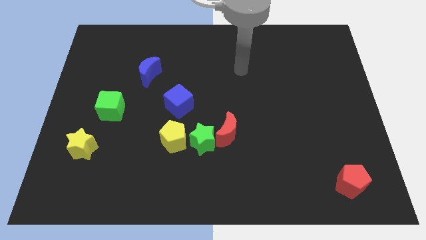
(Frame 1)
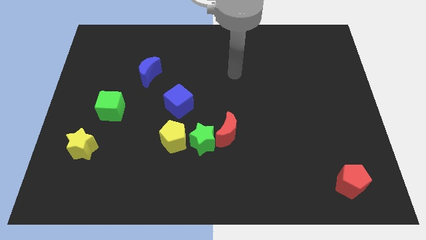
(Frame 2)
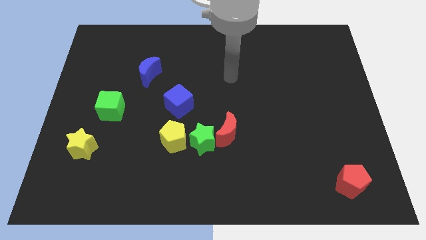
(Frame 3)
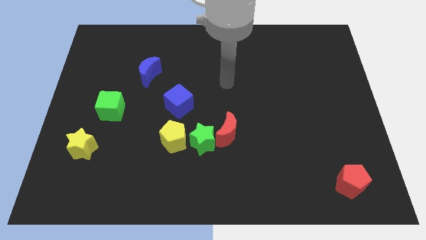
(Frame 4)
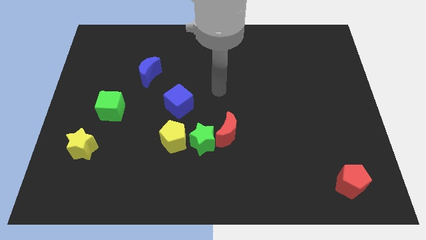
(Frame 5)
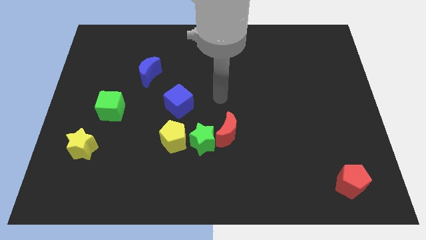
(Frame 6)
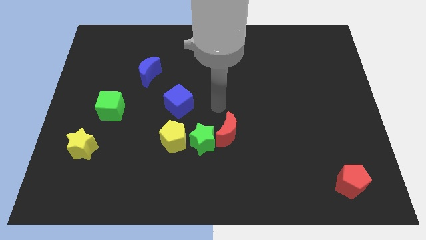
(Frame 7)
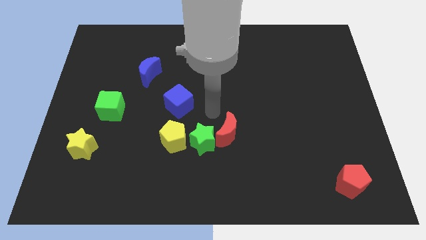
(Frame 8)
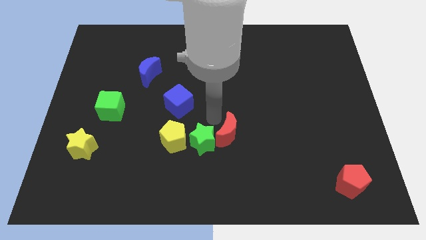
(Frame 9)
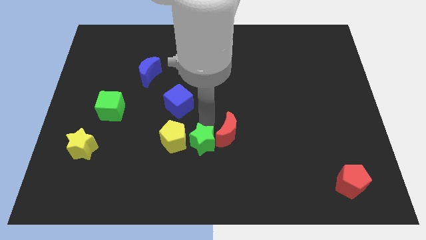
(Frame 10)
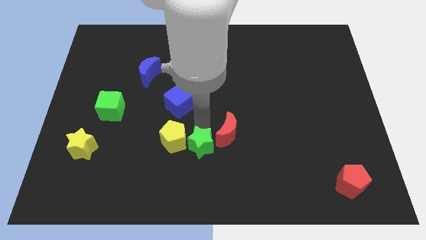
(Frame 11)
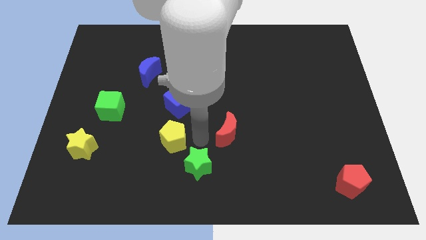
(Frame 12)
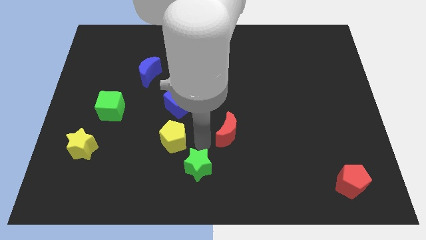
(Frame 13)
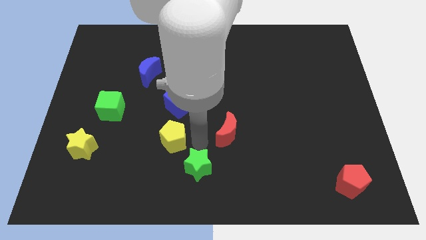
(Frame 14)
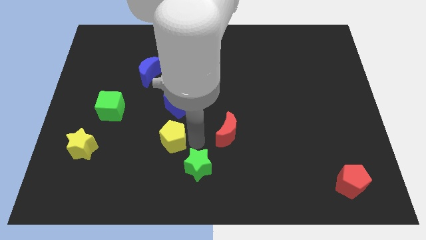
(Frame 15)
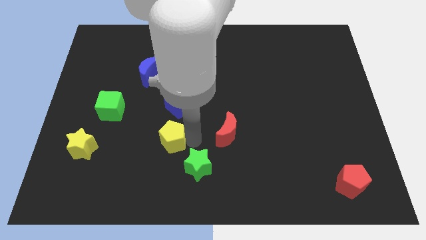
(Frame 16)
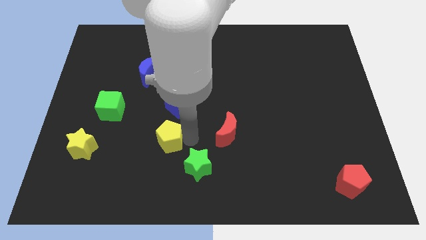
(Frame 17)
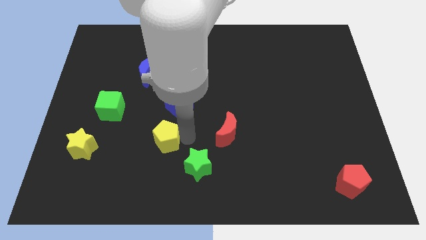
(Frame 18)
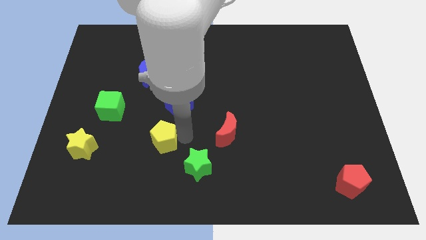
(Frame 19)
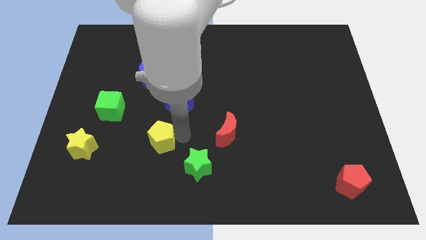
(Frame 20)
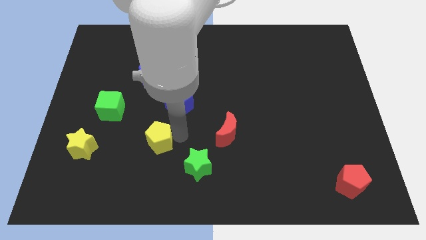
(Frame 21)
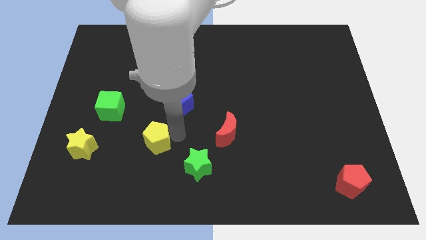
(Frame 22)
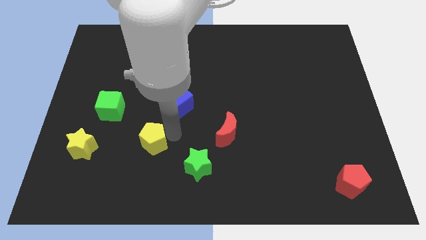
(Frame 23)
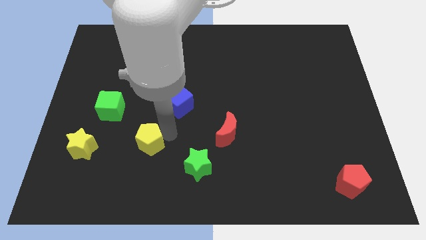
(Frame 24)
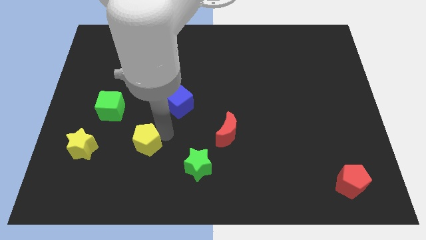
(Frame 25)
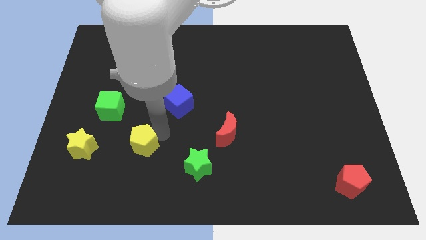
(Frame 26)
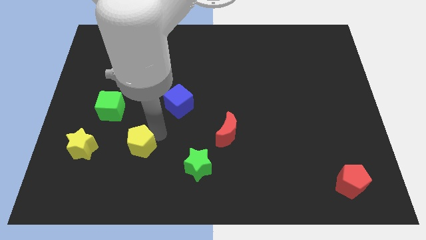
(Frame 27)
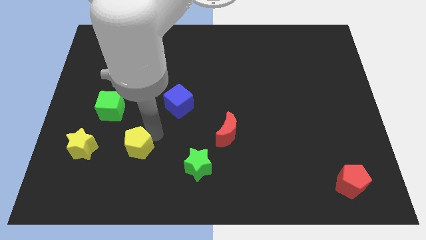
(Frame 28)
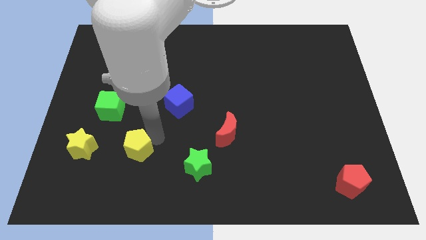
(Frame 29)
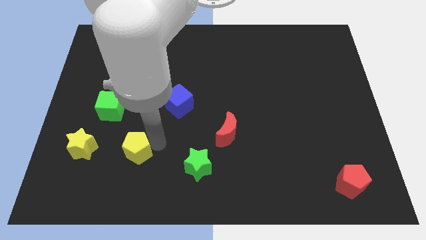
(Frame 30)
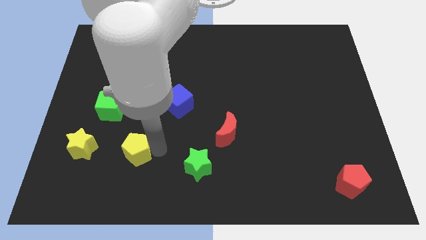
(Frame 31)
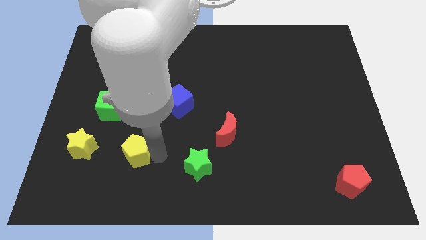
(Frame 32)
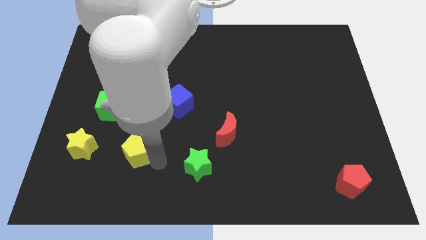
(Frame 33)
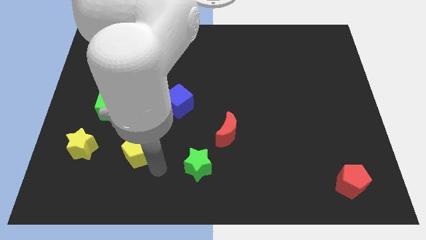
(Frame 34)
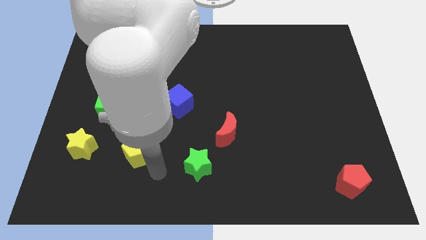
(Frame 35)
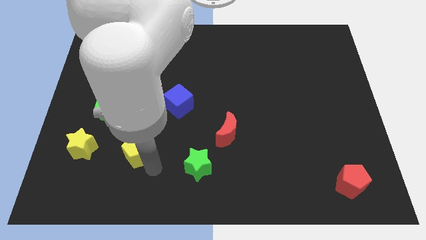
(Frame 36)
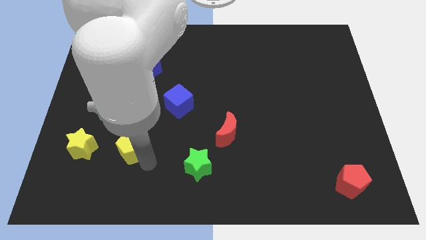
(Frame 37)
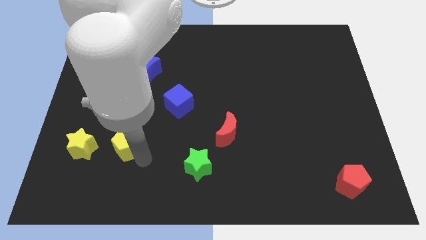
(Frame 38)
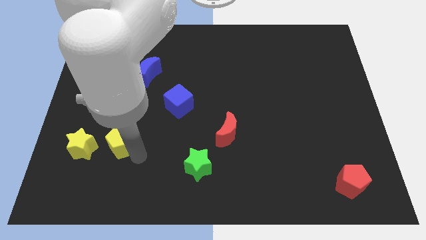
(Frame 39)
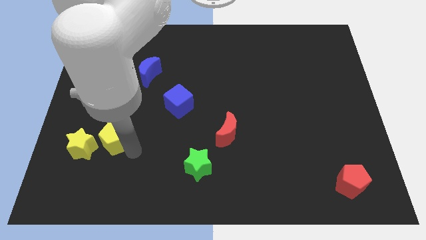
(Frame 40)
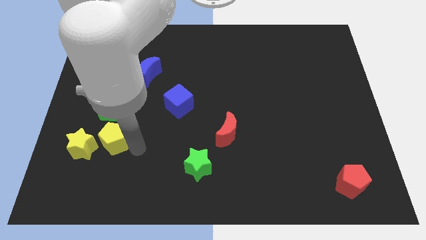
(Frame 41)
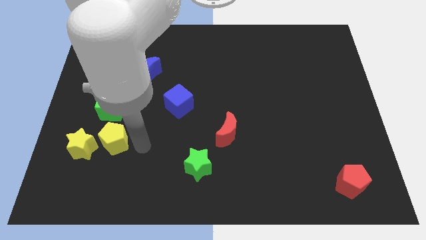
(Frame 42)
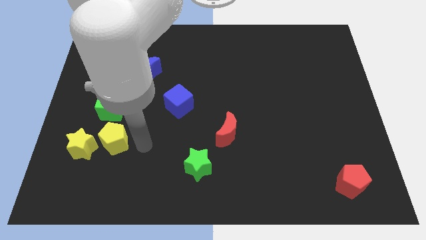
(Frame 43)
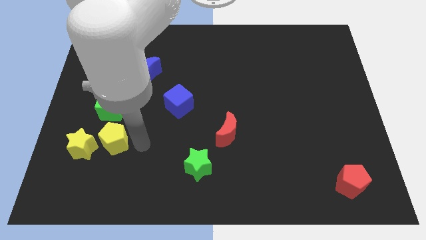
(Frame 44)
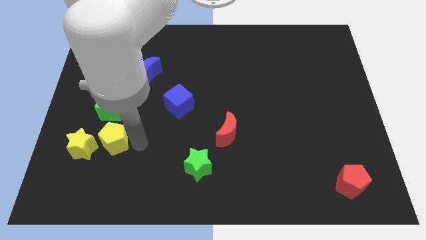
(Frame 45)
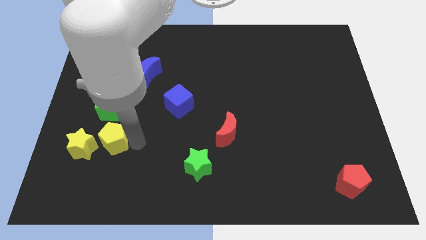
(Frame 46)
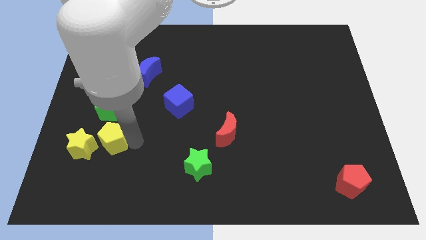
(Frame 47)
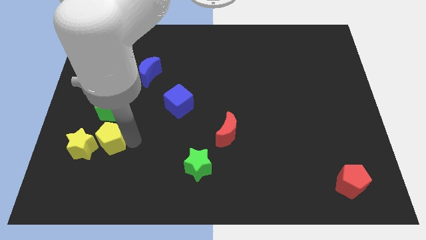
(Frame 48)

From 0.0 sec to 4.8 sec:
put the yellow pentagon towards the yellow star

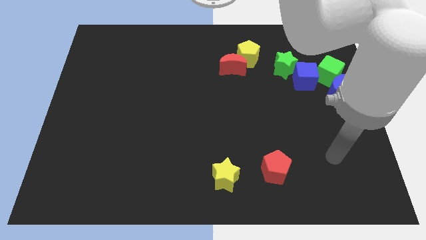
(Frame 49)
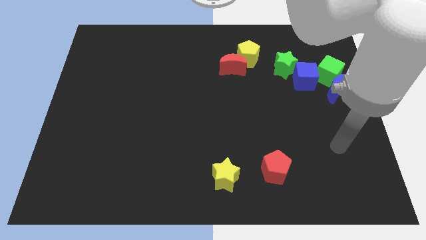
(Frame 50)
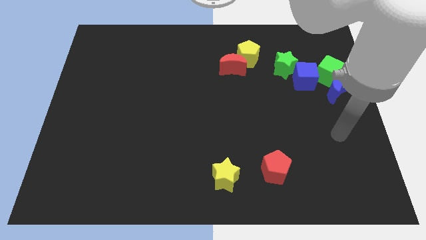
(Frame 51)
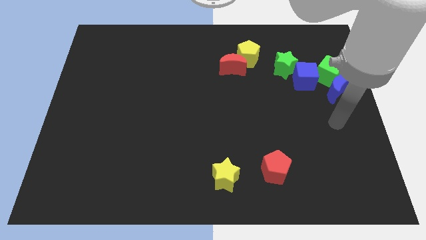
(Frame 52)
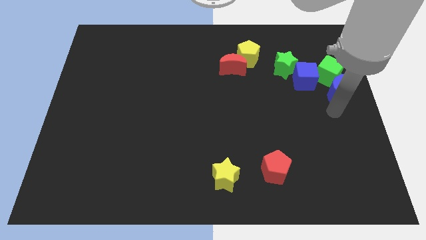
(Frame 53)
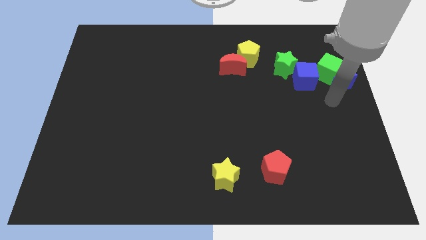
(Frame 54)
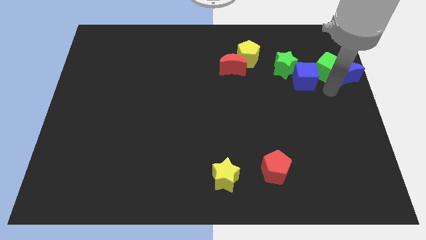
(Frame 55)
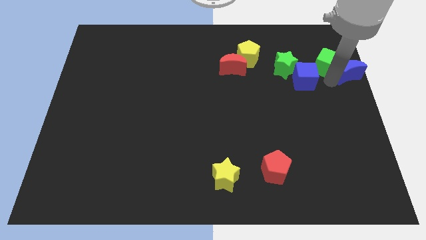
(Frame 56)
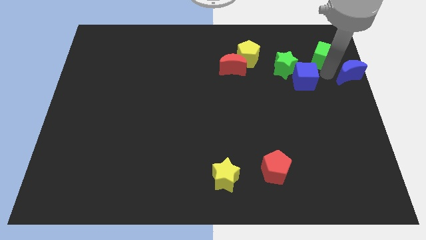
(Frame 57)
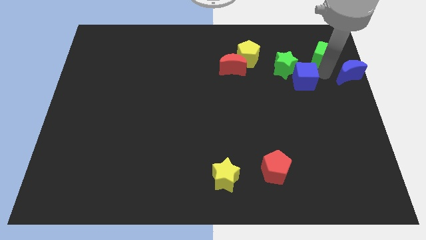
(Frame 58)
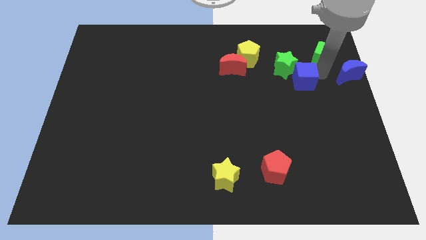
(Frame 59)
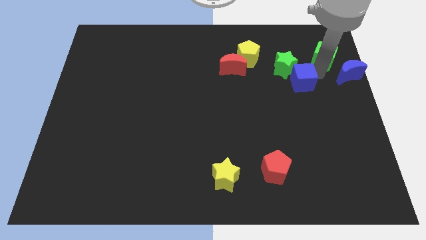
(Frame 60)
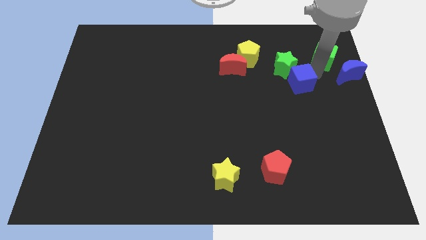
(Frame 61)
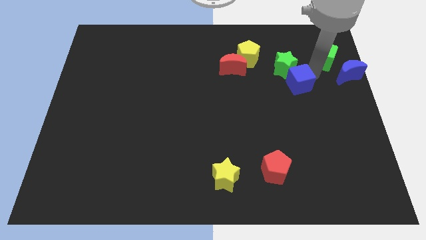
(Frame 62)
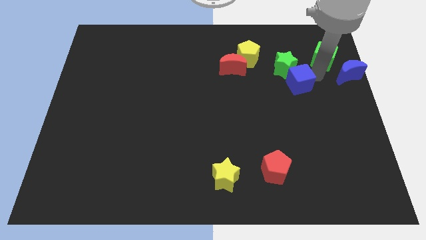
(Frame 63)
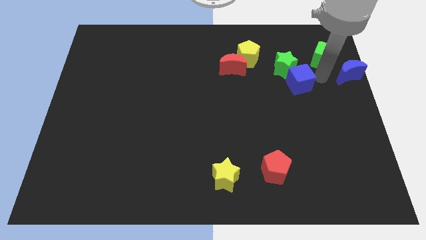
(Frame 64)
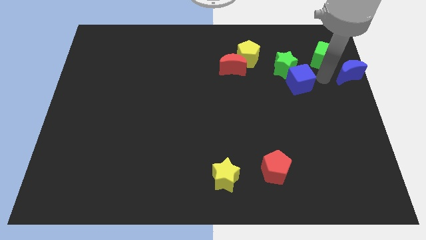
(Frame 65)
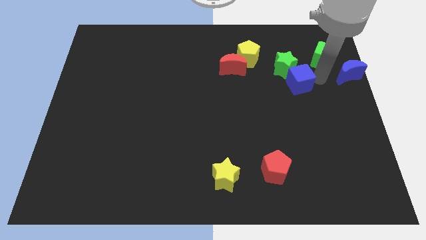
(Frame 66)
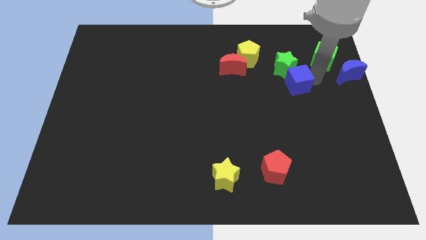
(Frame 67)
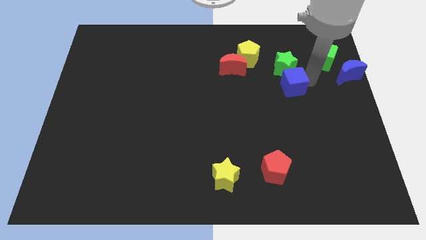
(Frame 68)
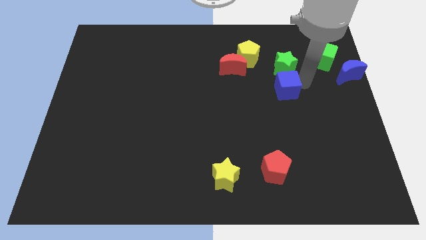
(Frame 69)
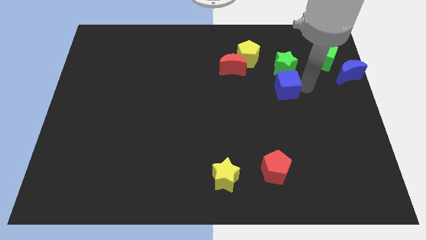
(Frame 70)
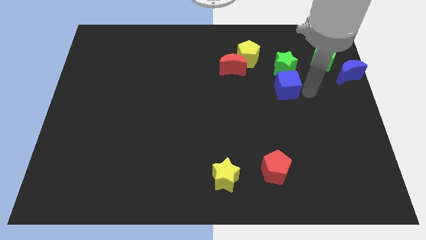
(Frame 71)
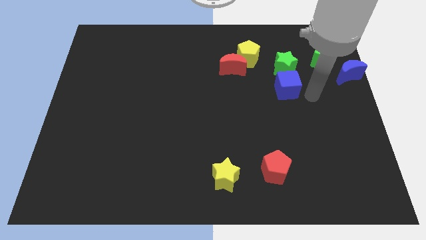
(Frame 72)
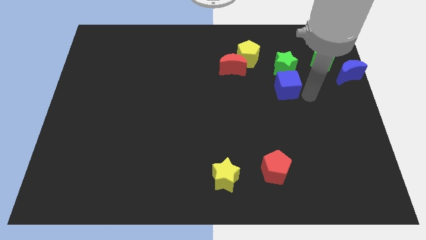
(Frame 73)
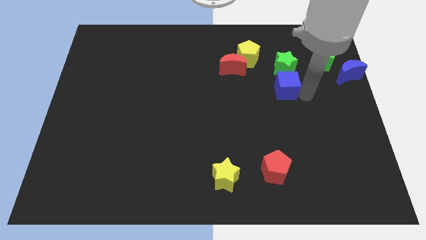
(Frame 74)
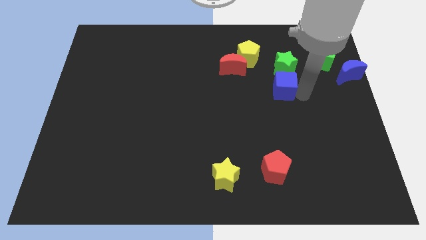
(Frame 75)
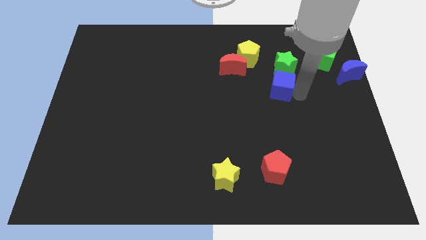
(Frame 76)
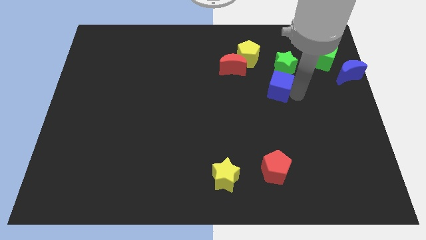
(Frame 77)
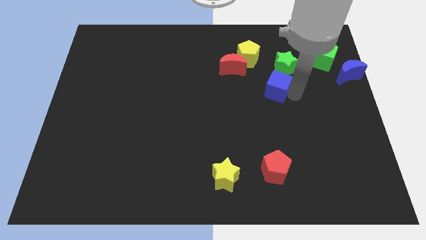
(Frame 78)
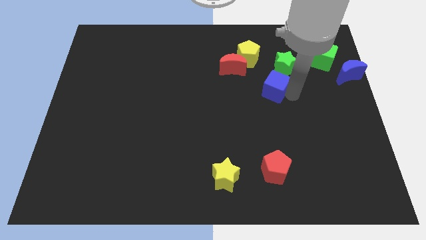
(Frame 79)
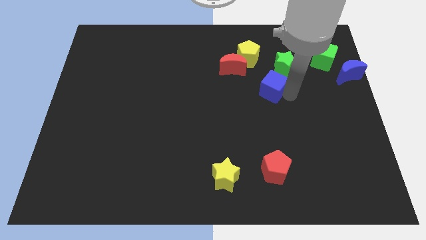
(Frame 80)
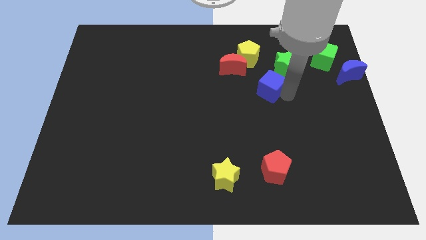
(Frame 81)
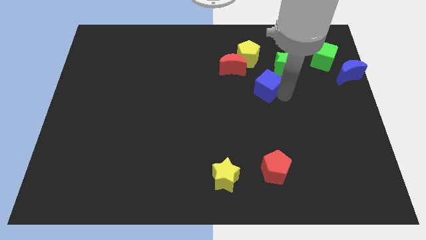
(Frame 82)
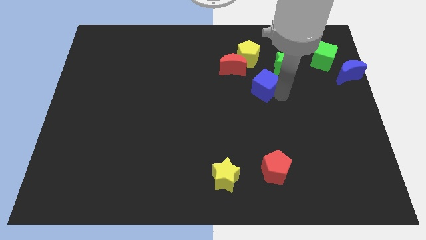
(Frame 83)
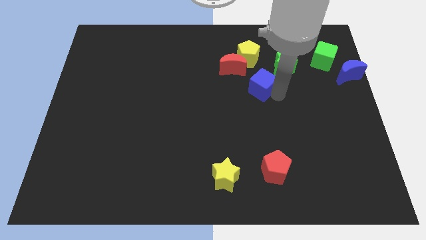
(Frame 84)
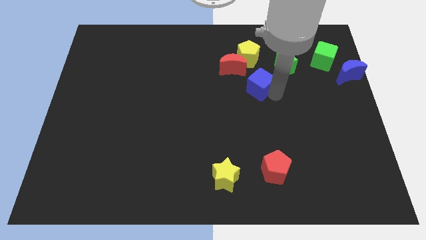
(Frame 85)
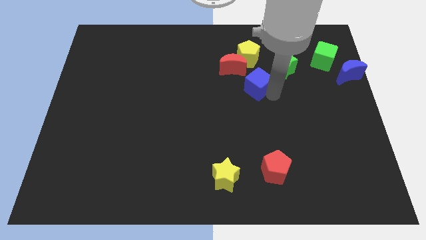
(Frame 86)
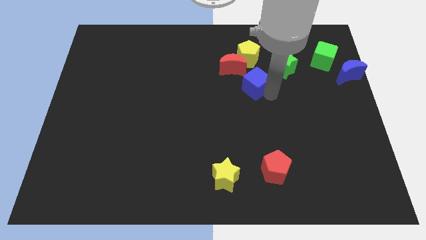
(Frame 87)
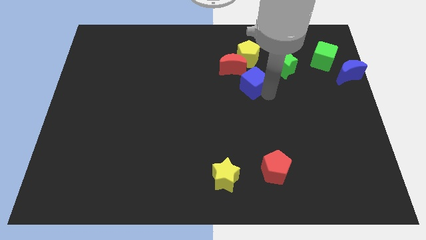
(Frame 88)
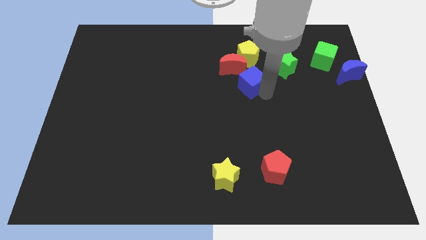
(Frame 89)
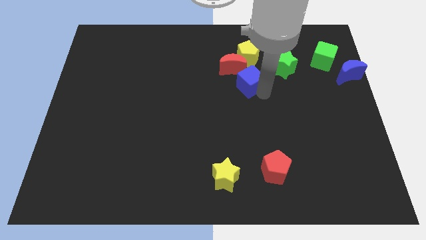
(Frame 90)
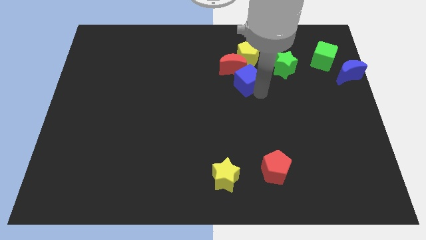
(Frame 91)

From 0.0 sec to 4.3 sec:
push the blue cube to the red moon
